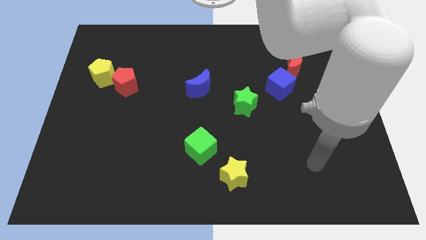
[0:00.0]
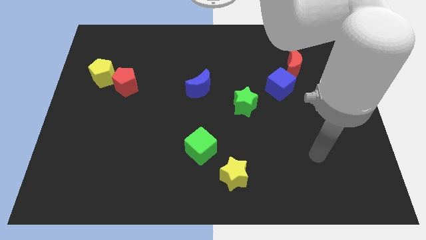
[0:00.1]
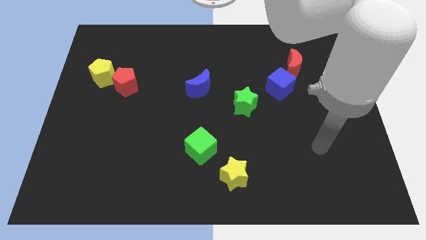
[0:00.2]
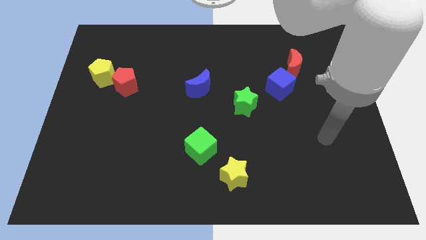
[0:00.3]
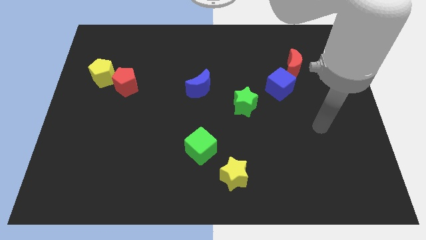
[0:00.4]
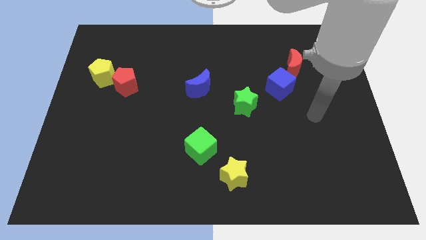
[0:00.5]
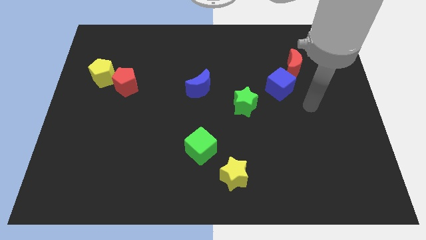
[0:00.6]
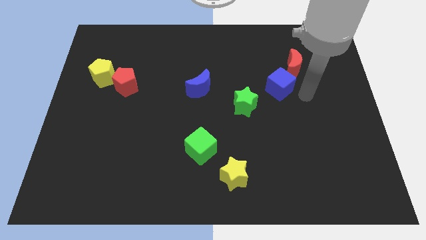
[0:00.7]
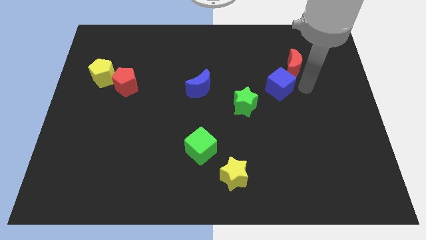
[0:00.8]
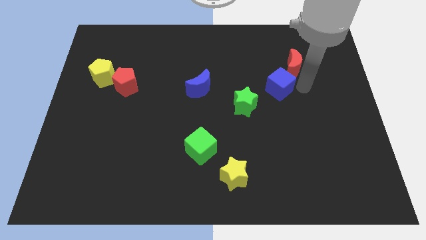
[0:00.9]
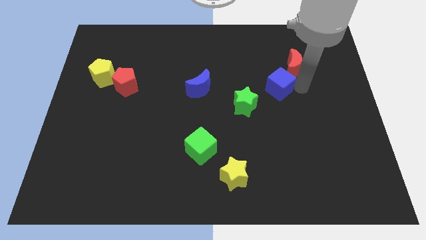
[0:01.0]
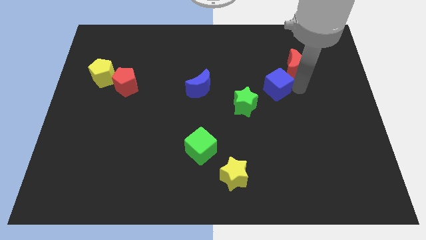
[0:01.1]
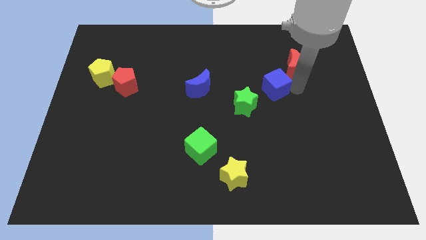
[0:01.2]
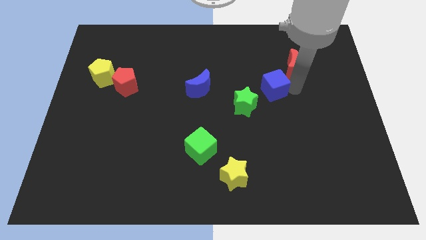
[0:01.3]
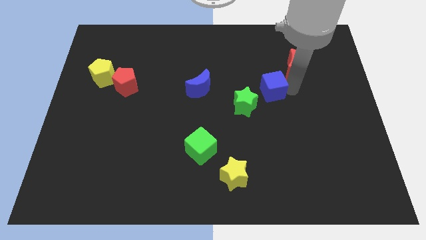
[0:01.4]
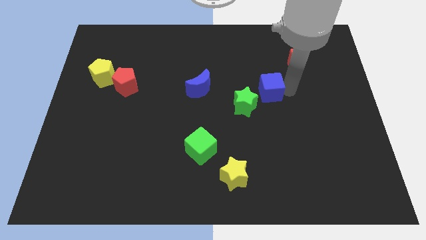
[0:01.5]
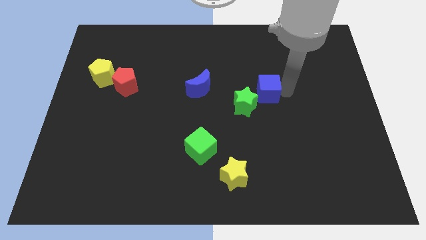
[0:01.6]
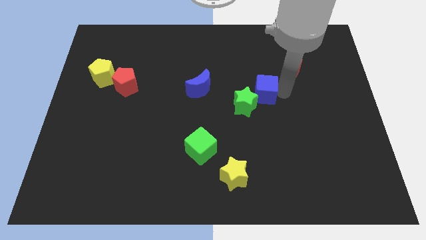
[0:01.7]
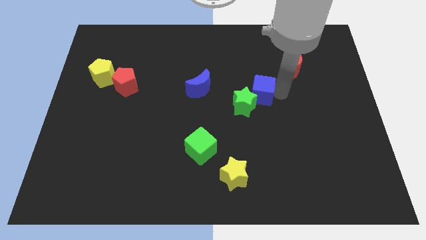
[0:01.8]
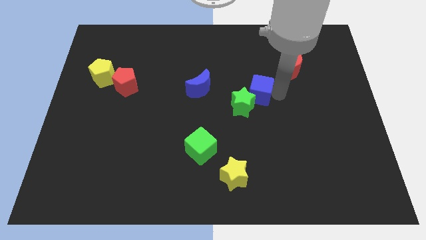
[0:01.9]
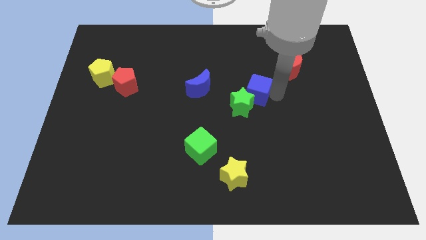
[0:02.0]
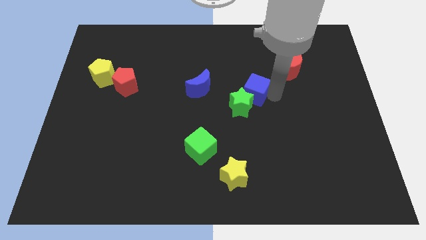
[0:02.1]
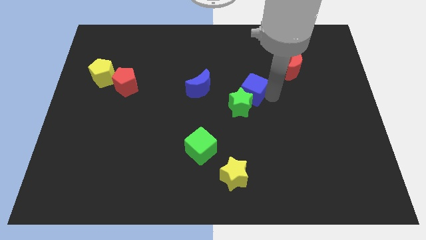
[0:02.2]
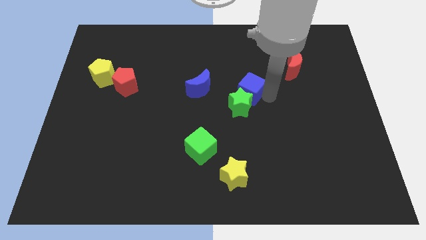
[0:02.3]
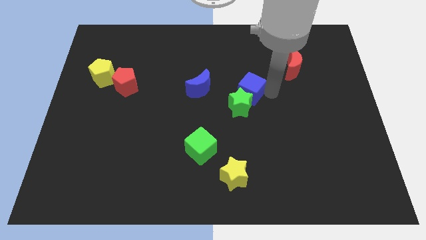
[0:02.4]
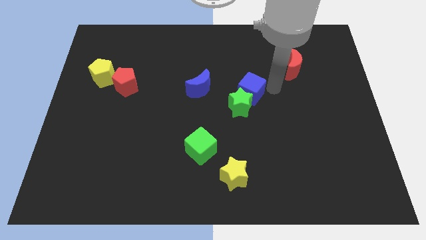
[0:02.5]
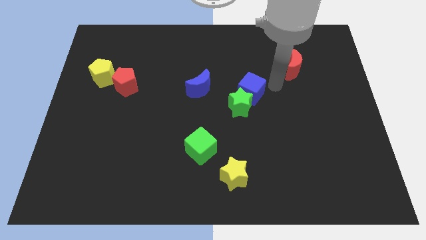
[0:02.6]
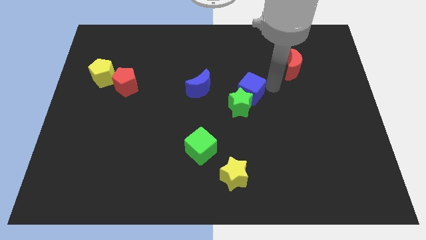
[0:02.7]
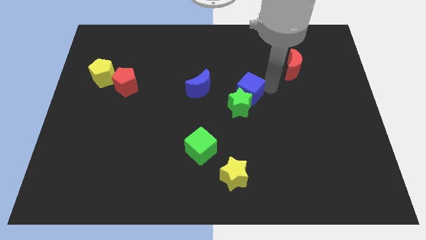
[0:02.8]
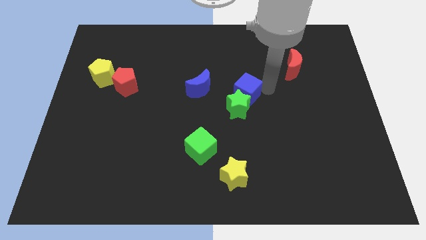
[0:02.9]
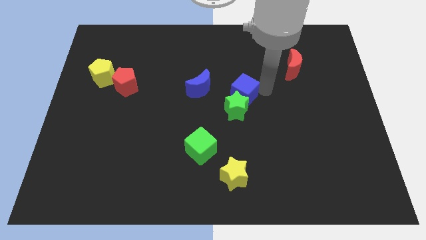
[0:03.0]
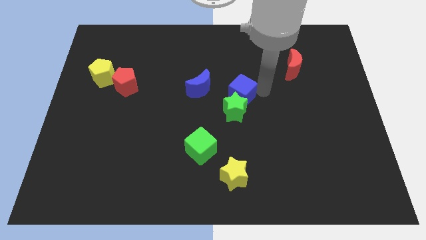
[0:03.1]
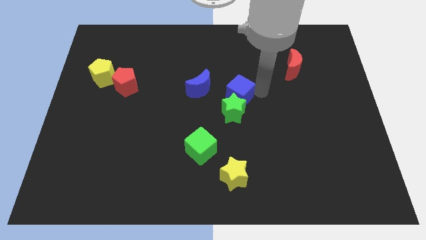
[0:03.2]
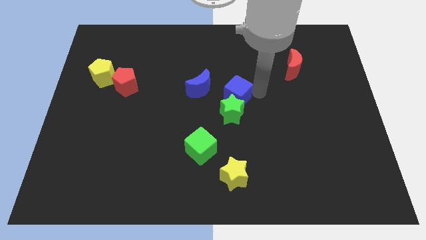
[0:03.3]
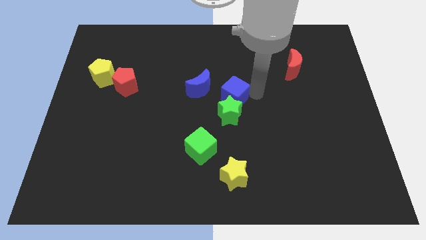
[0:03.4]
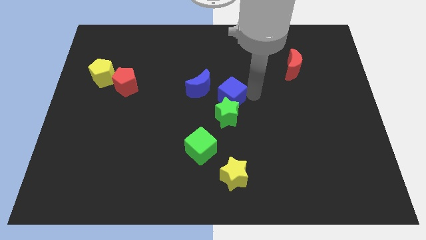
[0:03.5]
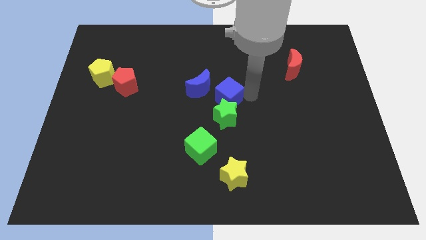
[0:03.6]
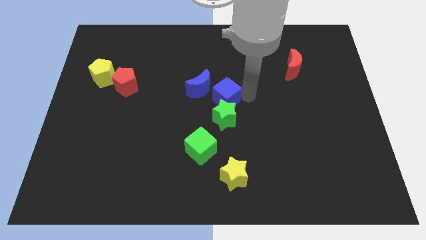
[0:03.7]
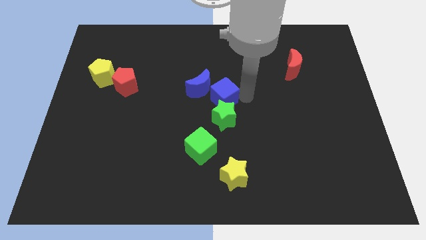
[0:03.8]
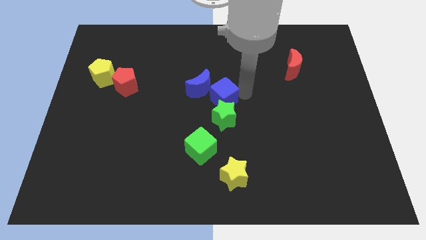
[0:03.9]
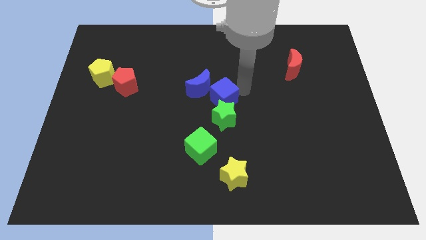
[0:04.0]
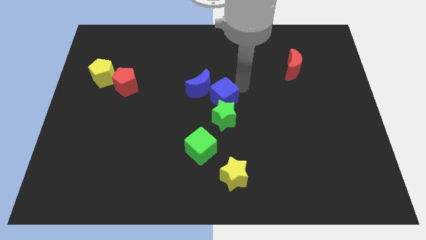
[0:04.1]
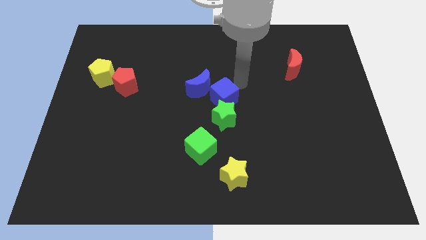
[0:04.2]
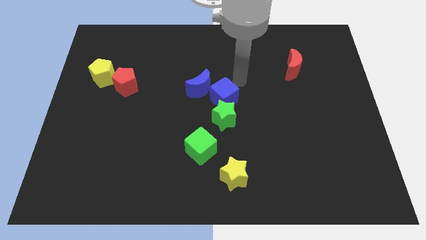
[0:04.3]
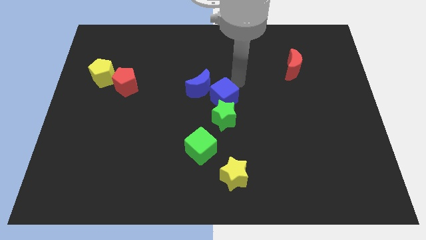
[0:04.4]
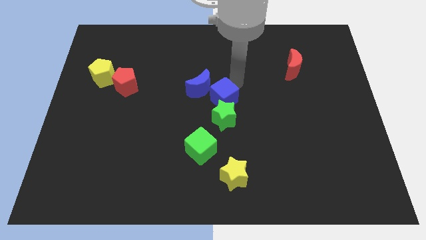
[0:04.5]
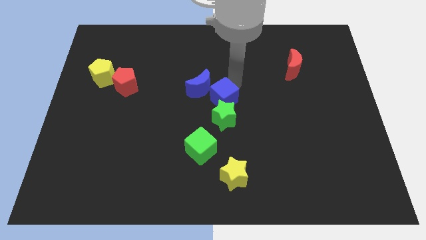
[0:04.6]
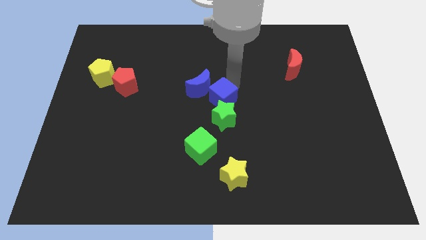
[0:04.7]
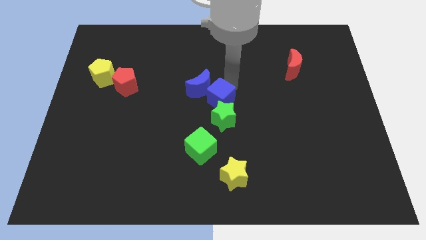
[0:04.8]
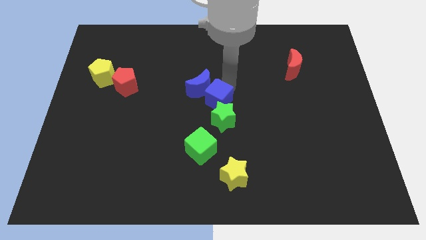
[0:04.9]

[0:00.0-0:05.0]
put the blue cube to the bottom of the blue moon

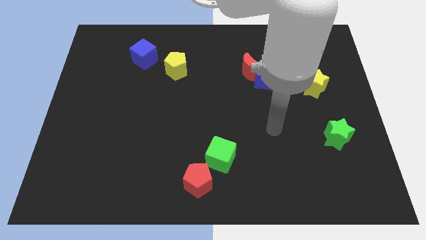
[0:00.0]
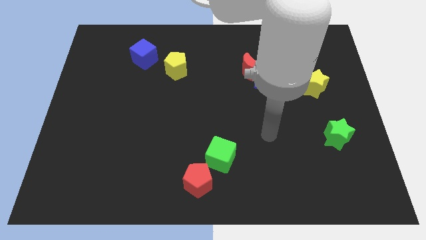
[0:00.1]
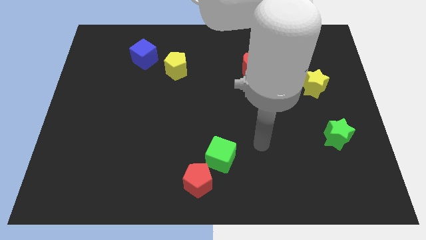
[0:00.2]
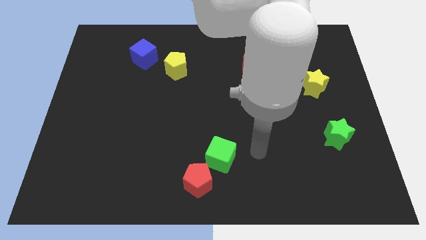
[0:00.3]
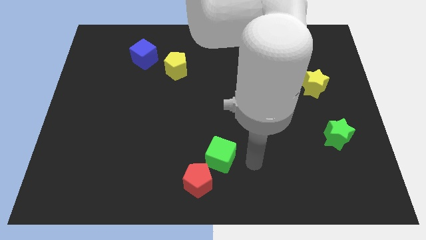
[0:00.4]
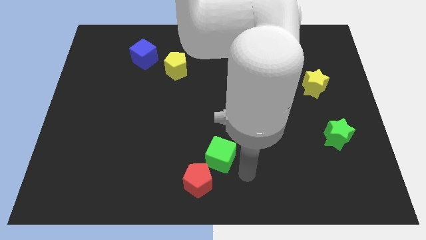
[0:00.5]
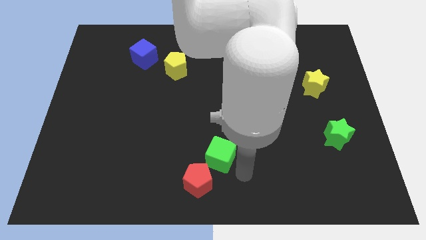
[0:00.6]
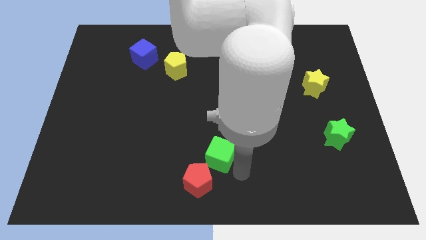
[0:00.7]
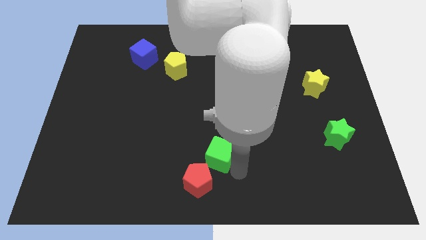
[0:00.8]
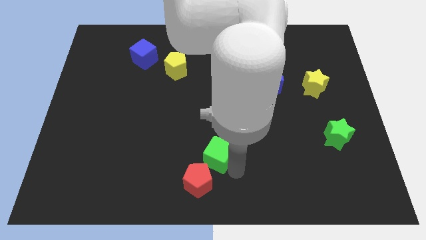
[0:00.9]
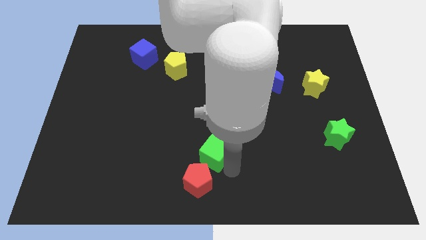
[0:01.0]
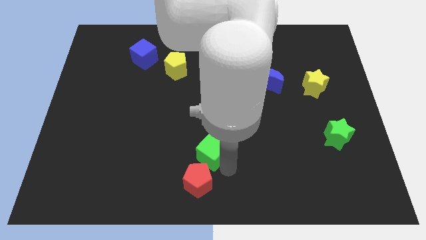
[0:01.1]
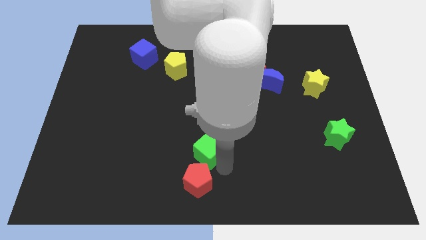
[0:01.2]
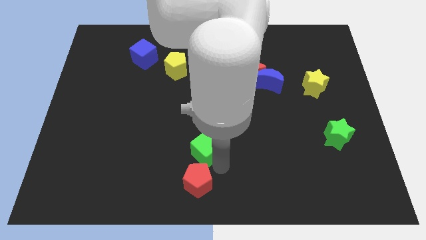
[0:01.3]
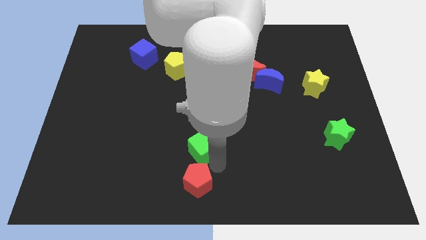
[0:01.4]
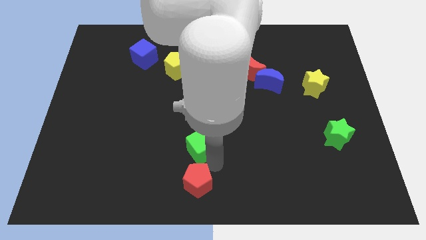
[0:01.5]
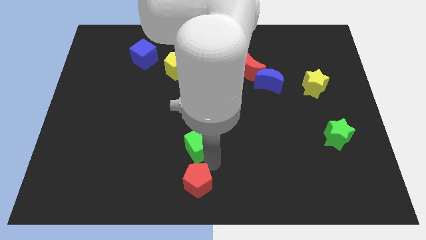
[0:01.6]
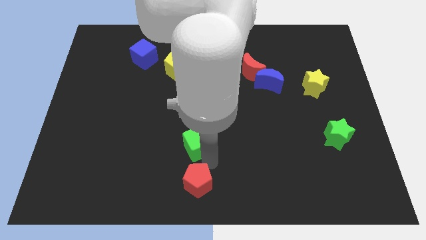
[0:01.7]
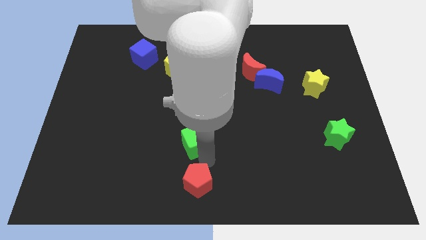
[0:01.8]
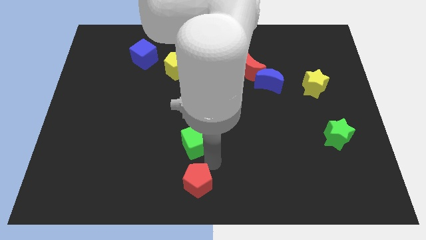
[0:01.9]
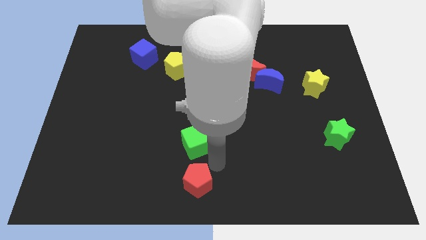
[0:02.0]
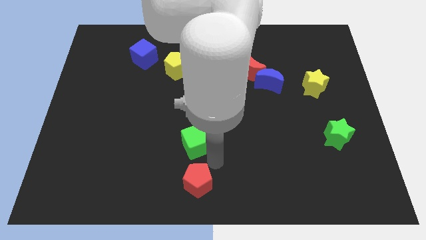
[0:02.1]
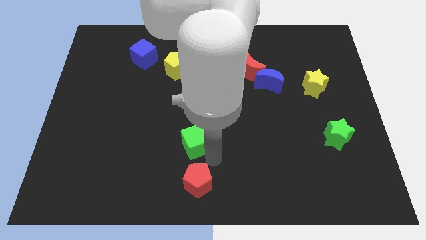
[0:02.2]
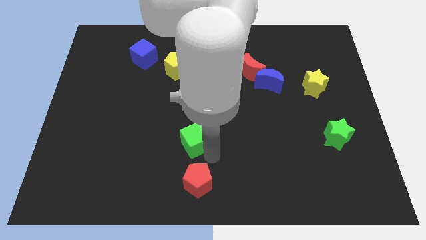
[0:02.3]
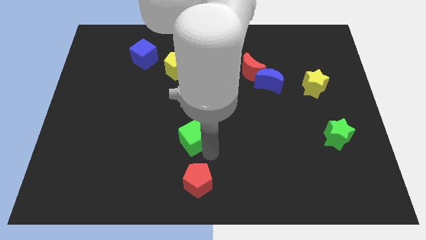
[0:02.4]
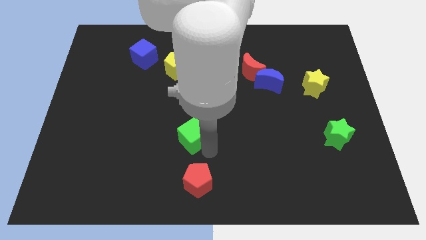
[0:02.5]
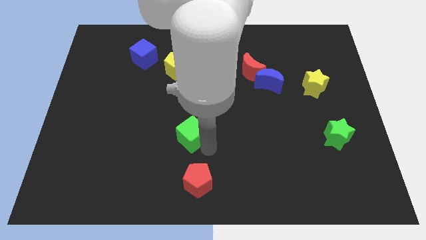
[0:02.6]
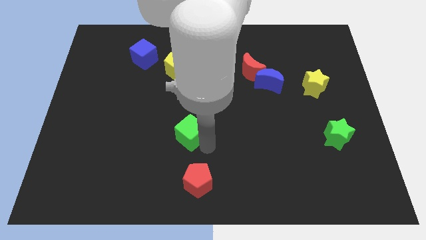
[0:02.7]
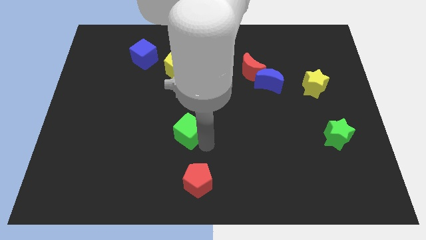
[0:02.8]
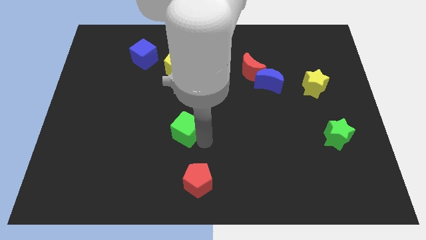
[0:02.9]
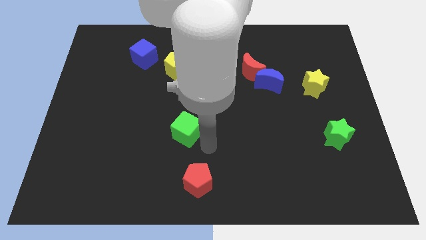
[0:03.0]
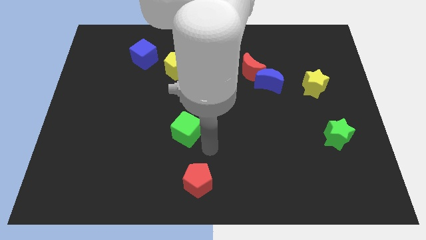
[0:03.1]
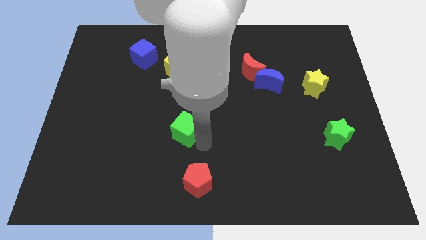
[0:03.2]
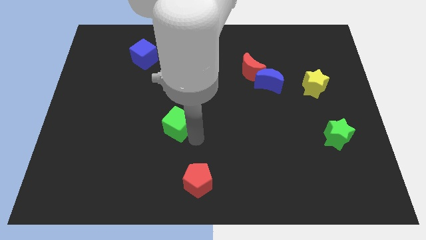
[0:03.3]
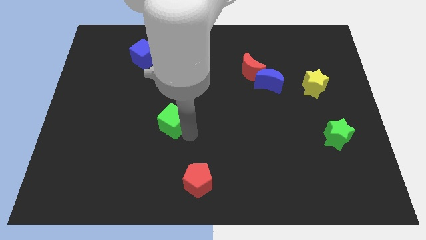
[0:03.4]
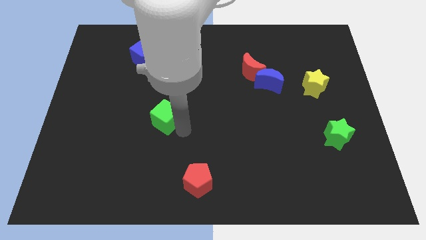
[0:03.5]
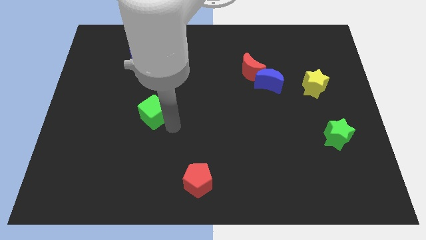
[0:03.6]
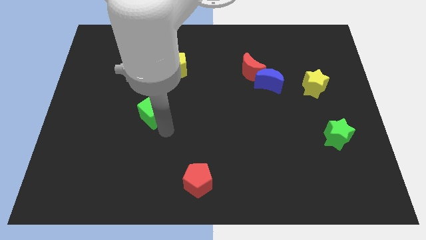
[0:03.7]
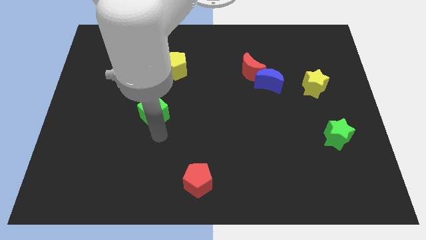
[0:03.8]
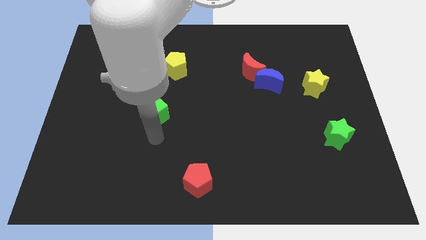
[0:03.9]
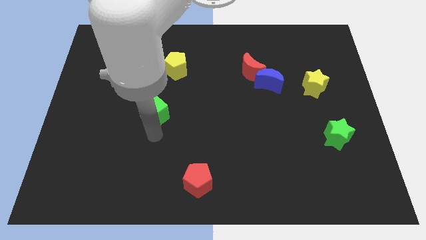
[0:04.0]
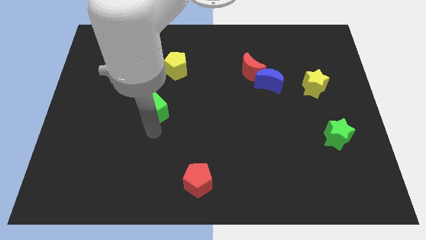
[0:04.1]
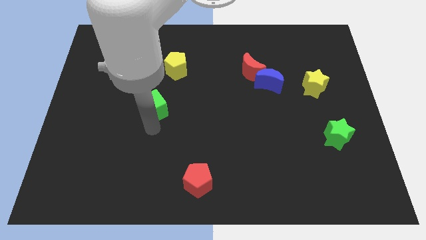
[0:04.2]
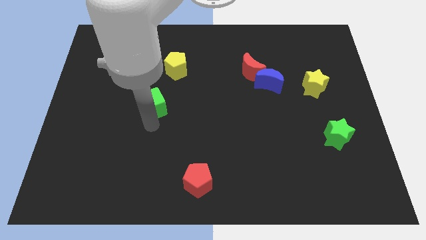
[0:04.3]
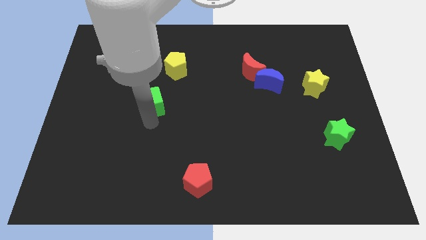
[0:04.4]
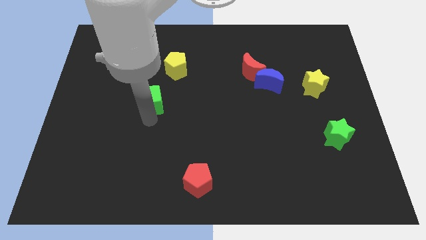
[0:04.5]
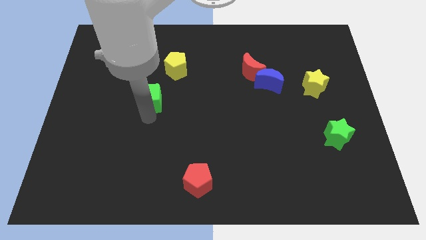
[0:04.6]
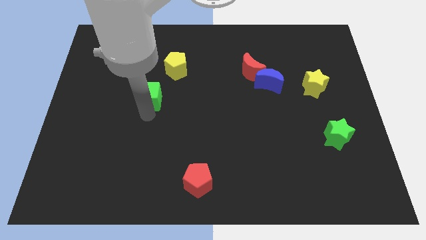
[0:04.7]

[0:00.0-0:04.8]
put the green cube to the bottom left side of the yellow pentagon
